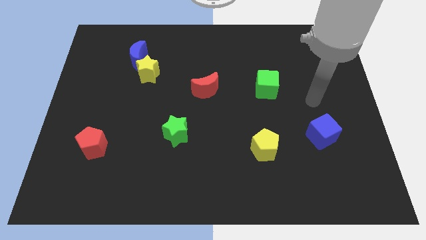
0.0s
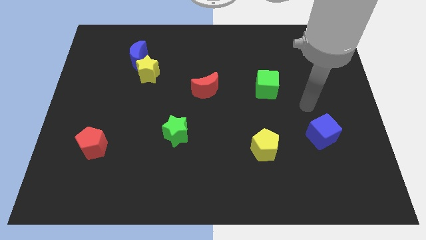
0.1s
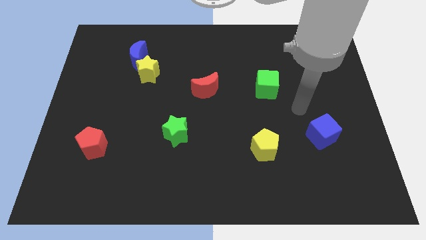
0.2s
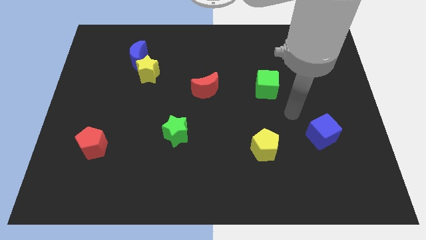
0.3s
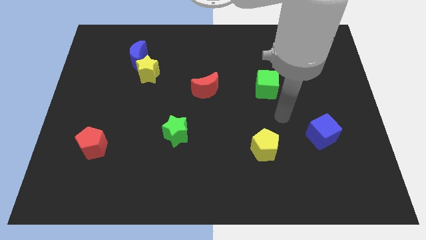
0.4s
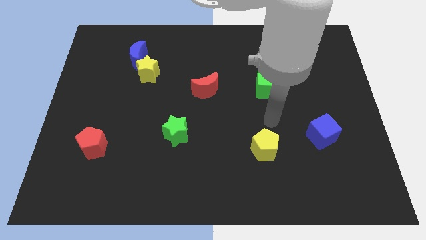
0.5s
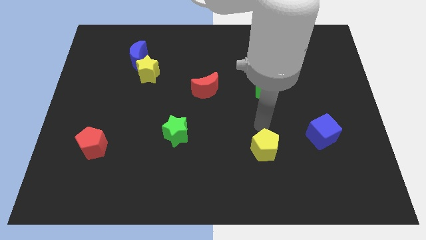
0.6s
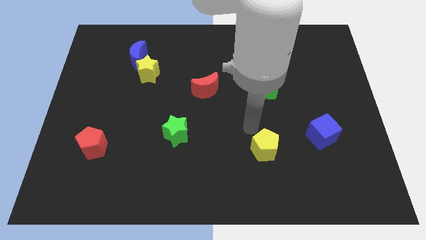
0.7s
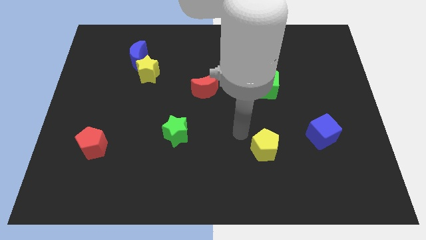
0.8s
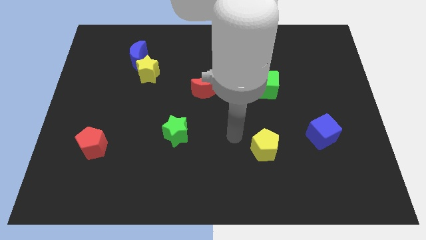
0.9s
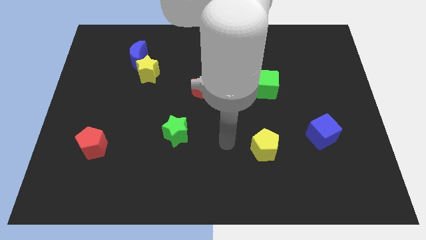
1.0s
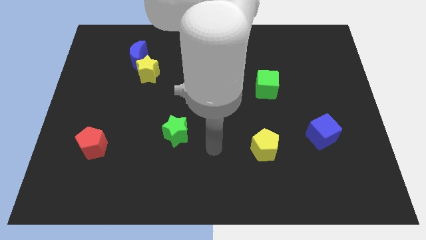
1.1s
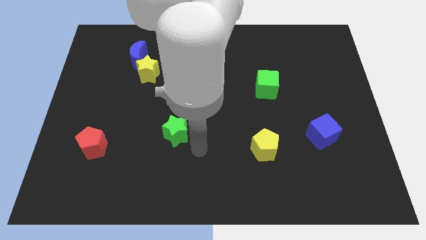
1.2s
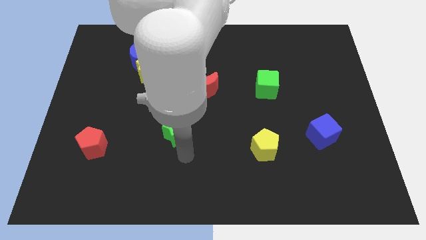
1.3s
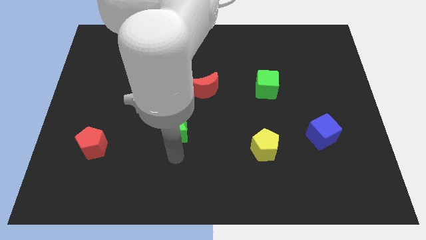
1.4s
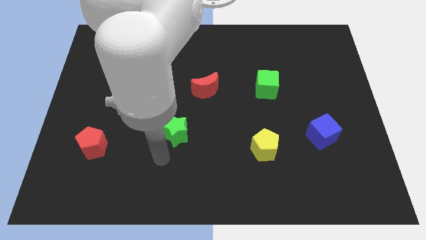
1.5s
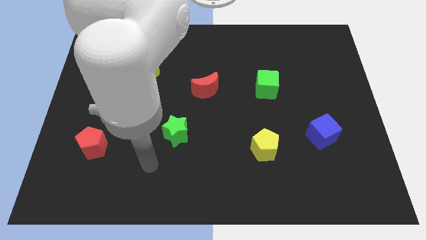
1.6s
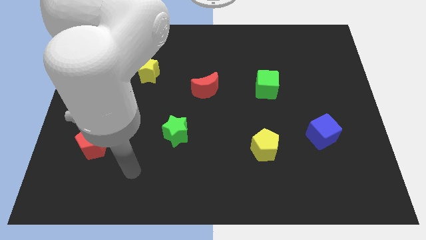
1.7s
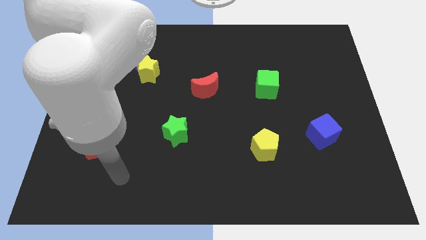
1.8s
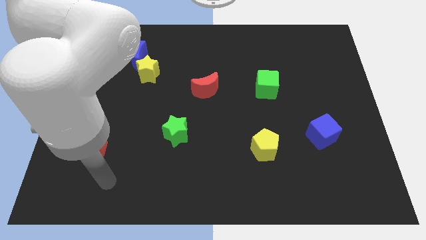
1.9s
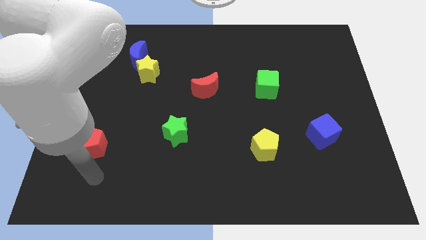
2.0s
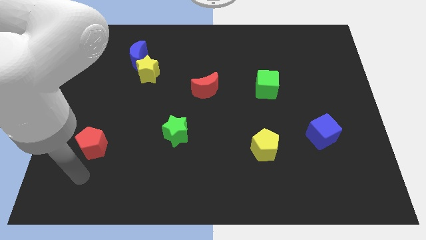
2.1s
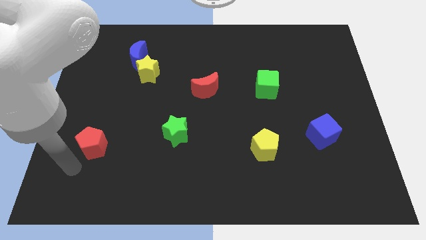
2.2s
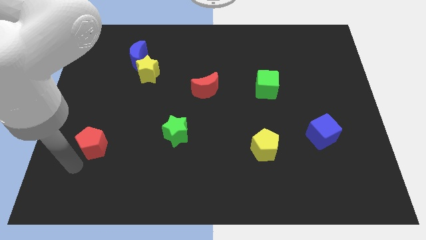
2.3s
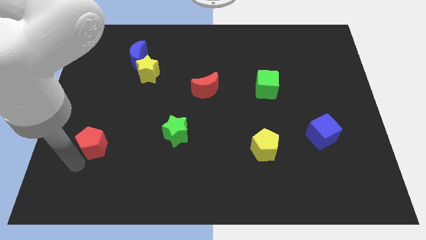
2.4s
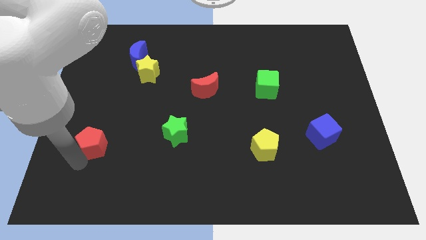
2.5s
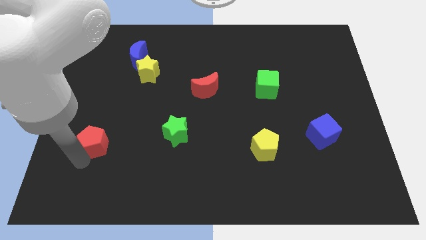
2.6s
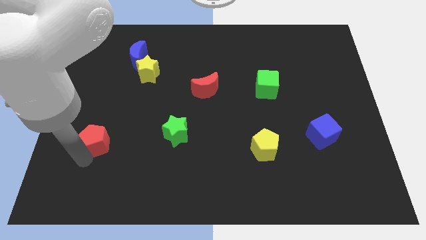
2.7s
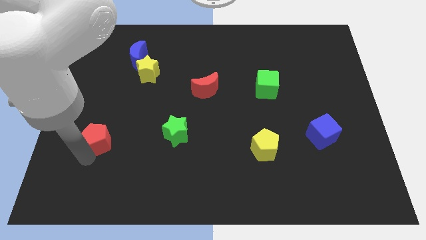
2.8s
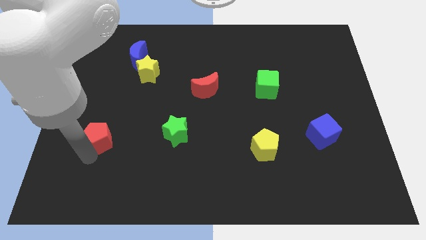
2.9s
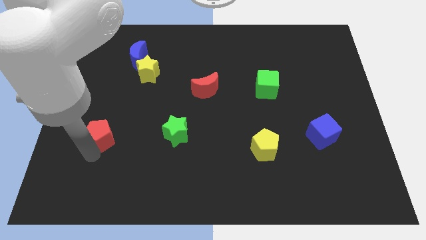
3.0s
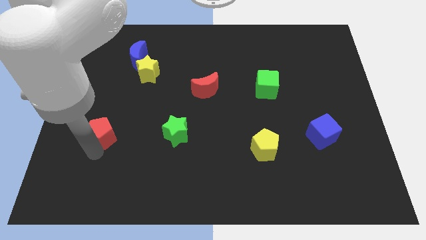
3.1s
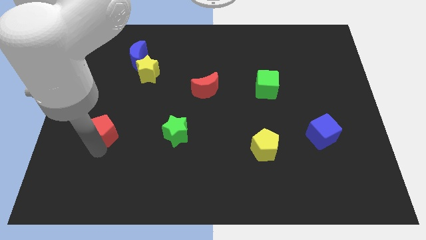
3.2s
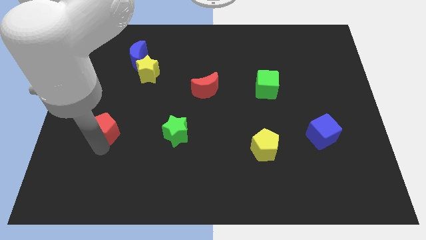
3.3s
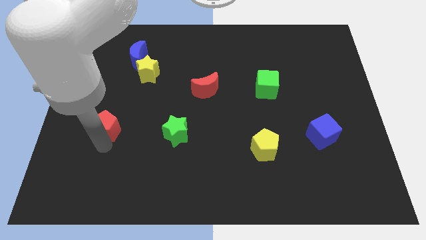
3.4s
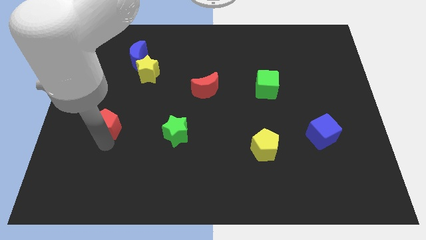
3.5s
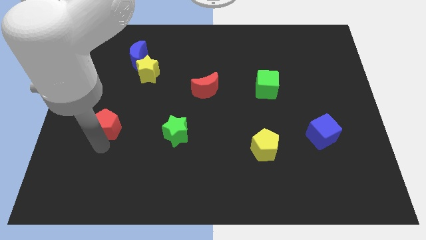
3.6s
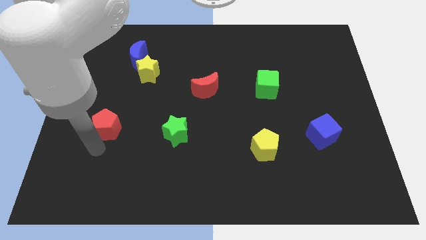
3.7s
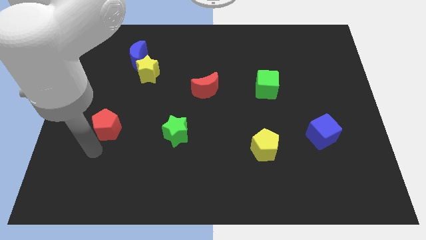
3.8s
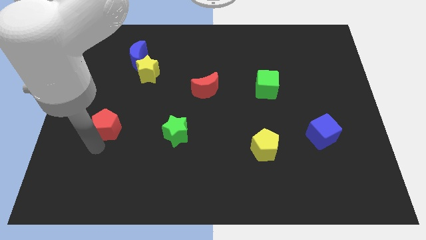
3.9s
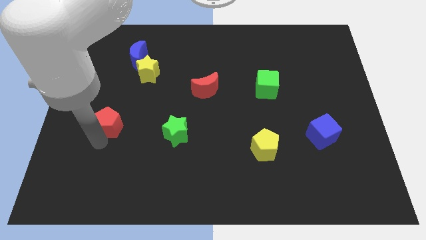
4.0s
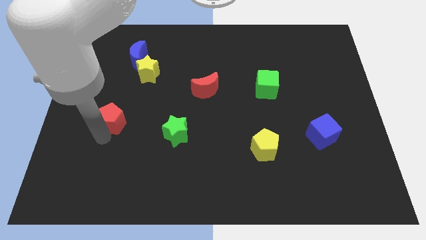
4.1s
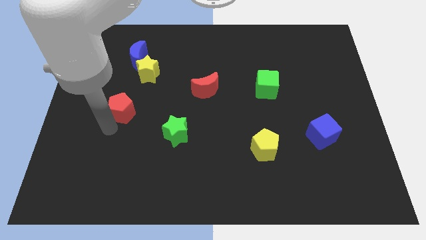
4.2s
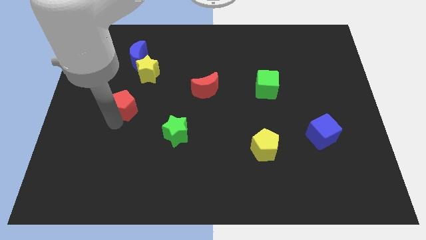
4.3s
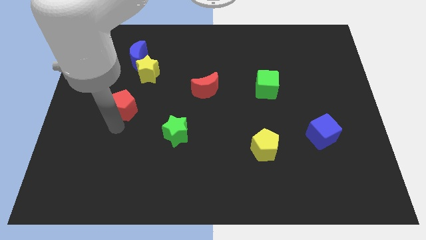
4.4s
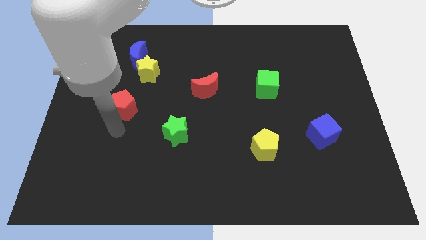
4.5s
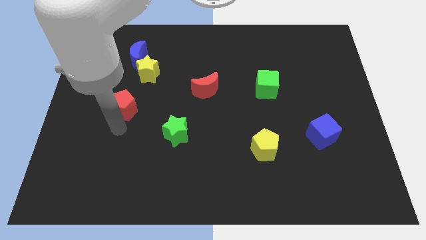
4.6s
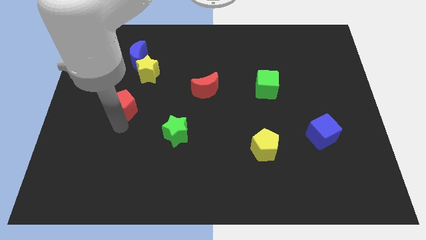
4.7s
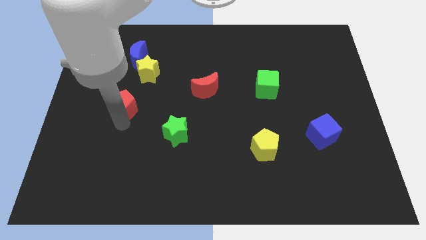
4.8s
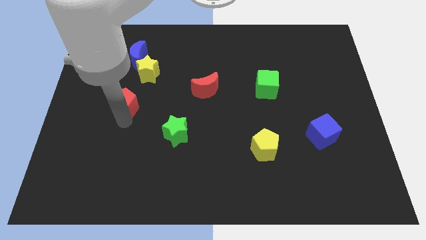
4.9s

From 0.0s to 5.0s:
push the red pentagon below the blue moon

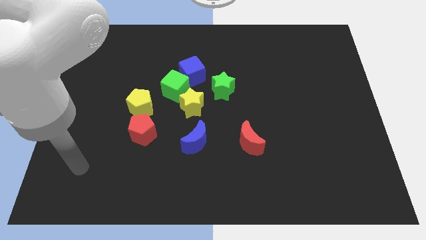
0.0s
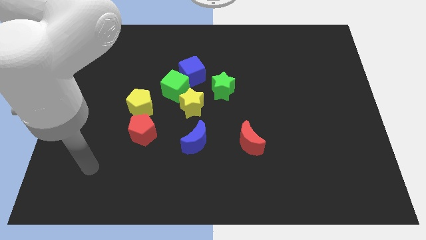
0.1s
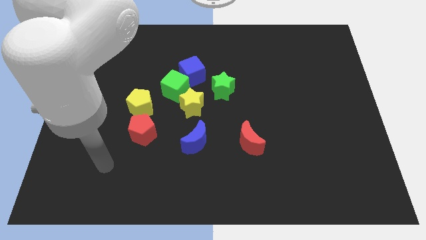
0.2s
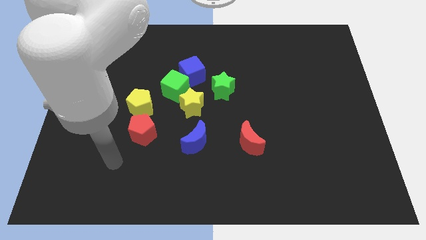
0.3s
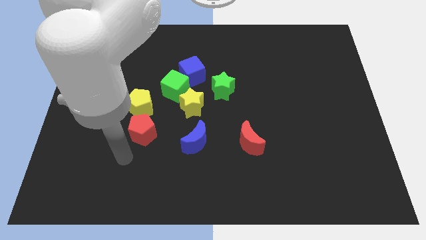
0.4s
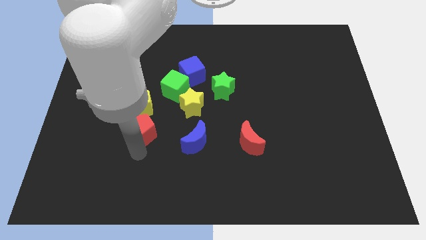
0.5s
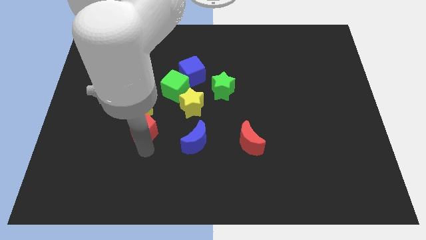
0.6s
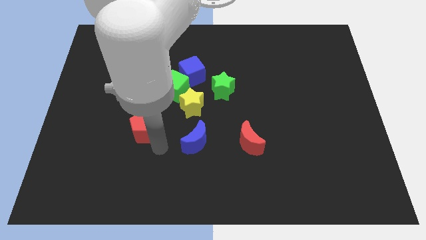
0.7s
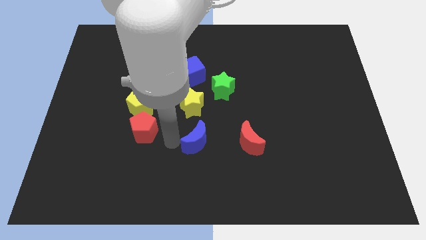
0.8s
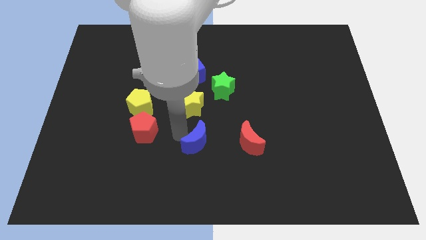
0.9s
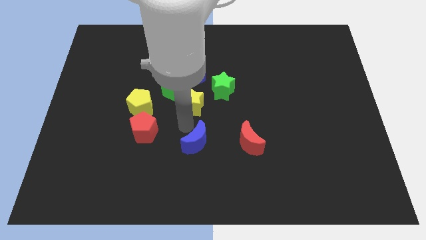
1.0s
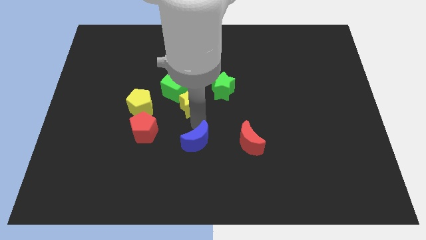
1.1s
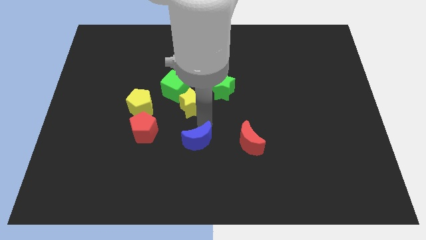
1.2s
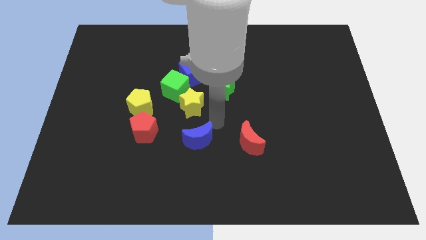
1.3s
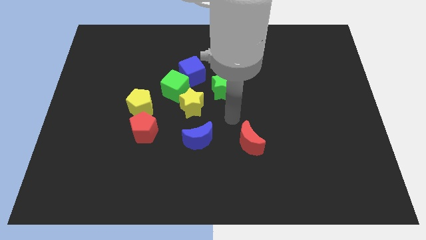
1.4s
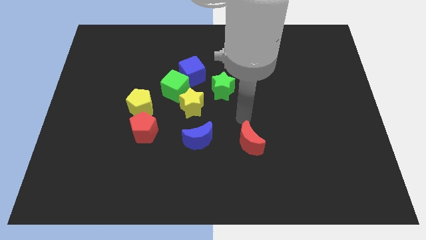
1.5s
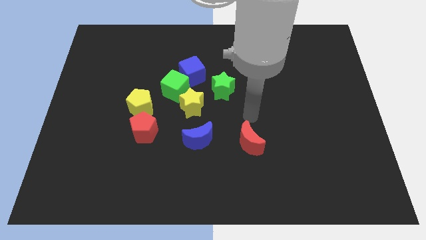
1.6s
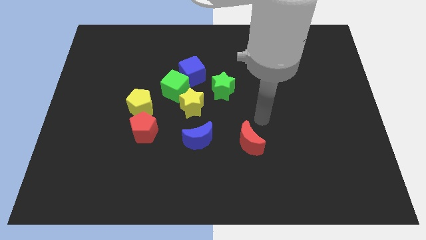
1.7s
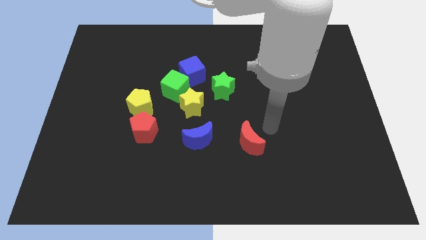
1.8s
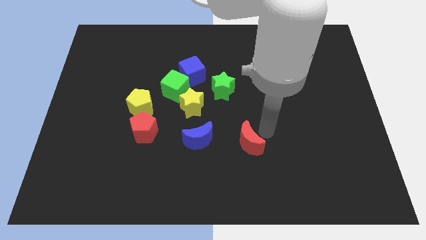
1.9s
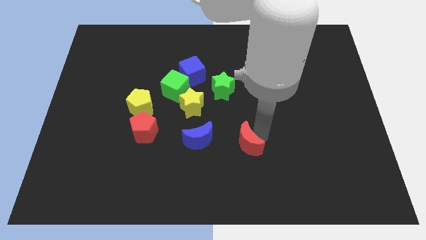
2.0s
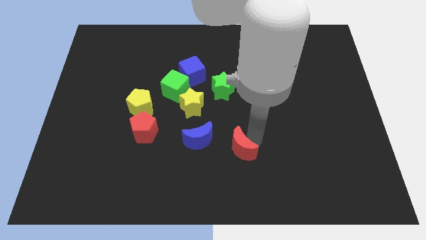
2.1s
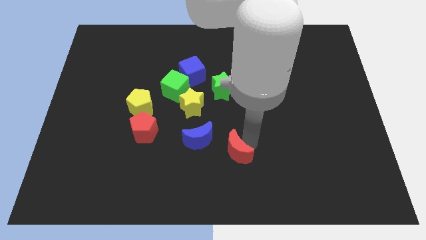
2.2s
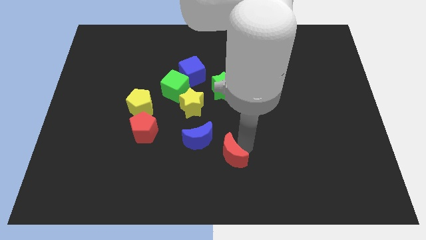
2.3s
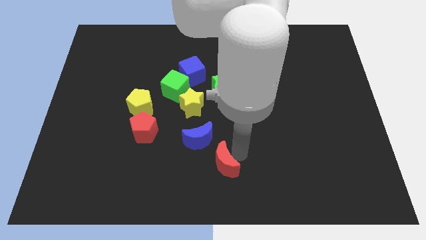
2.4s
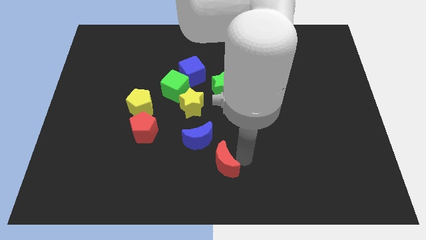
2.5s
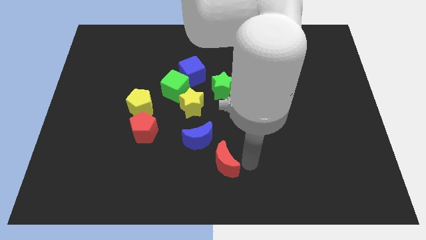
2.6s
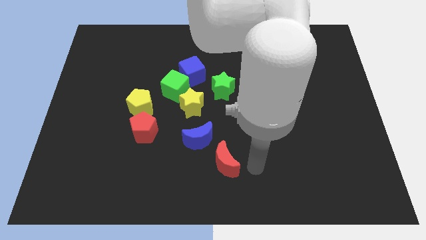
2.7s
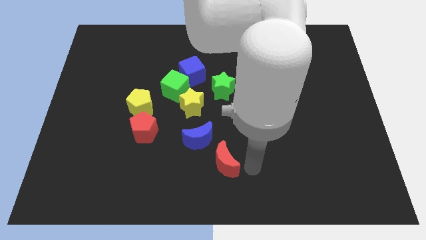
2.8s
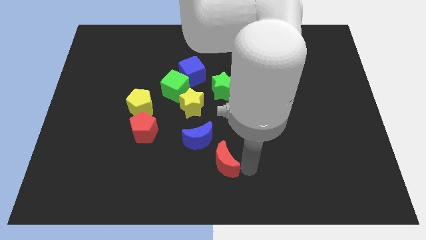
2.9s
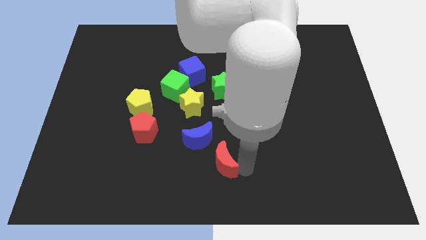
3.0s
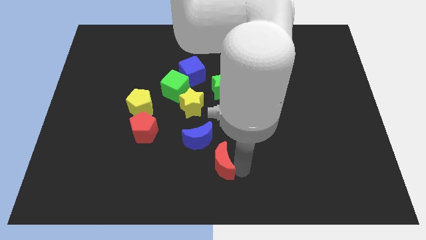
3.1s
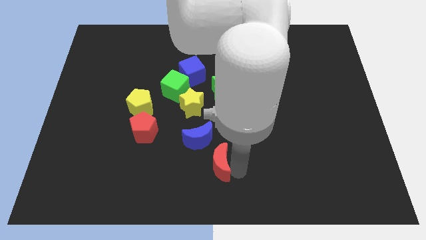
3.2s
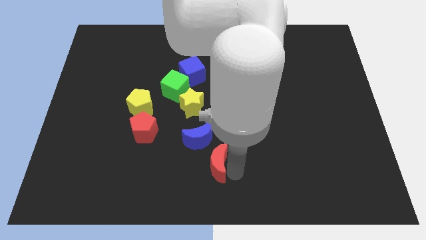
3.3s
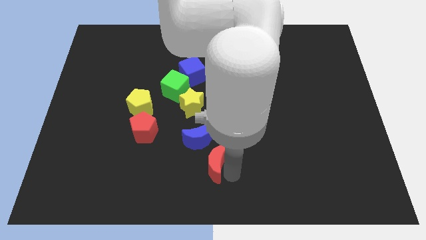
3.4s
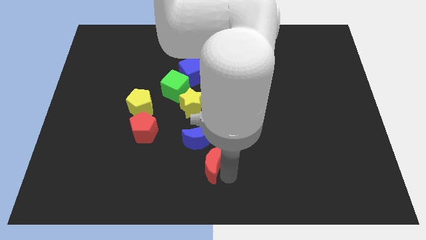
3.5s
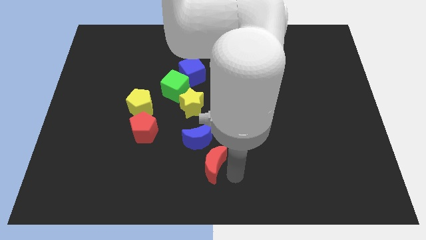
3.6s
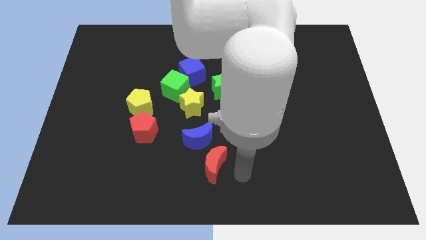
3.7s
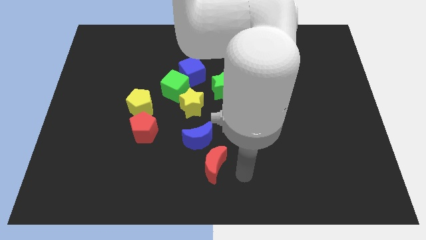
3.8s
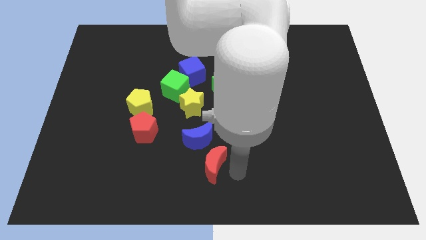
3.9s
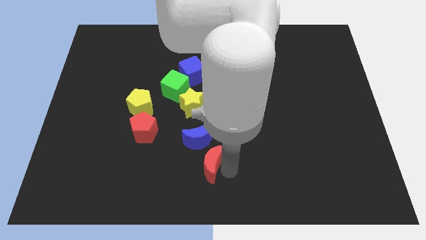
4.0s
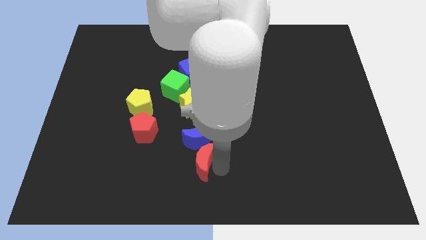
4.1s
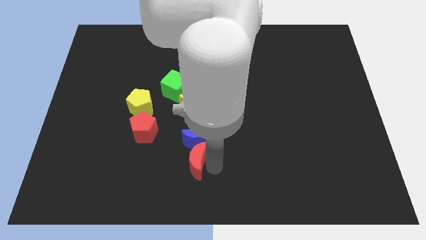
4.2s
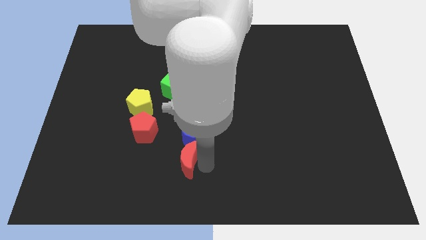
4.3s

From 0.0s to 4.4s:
put the red moon to the bottom right side of the red pentagon
